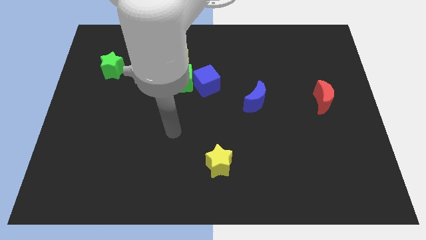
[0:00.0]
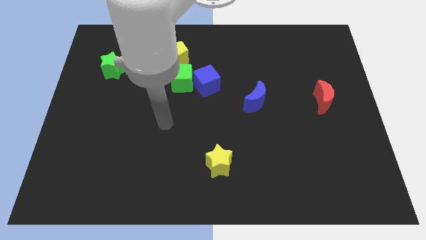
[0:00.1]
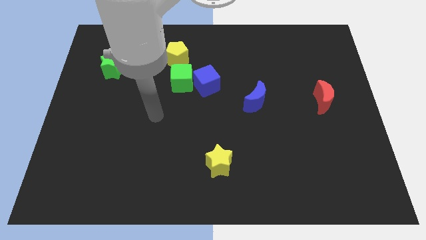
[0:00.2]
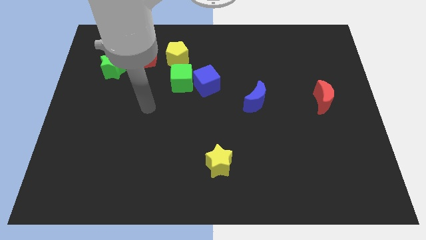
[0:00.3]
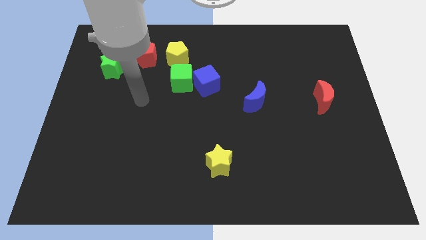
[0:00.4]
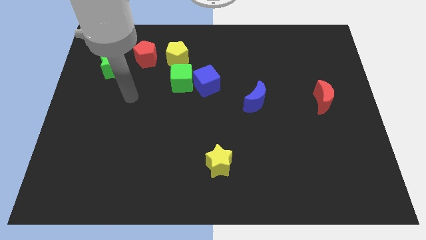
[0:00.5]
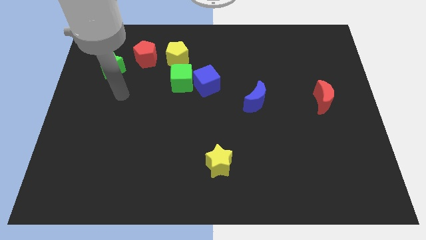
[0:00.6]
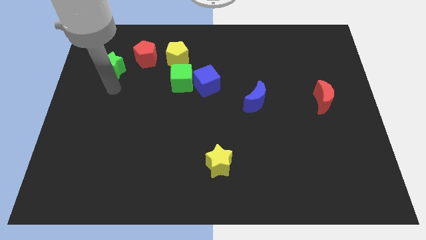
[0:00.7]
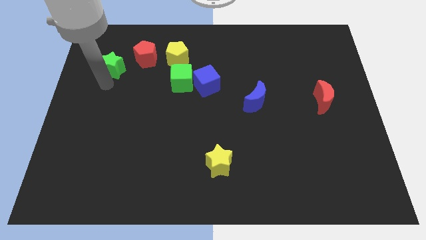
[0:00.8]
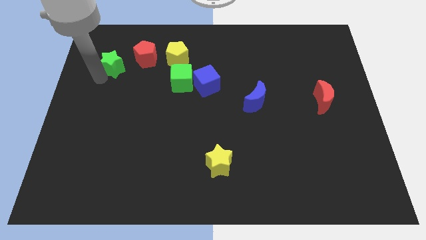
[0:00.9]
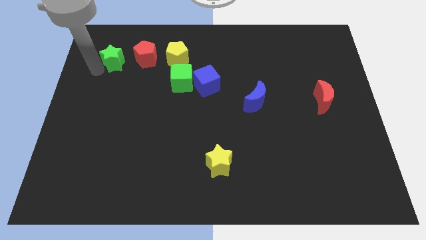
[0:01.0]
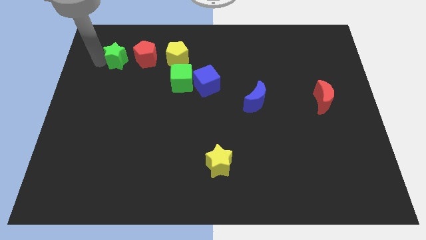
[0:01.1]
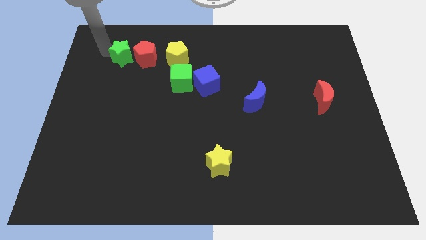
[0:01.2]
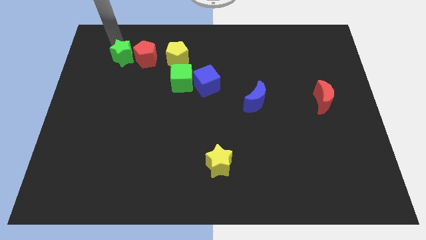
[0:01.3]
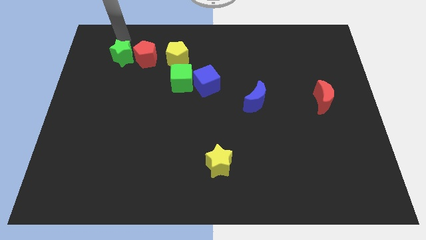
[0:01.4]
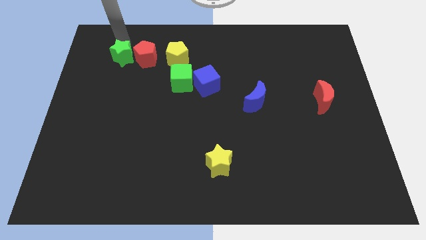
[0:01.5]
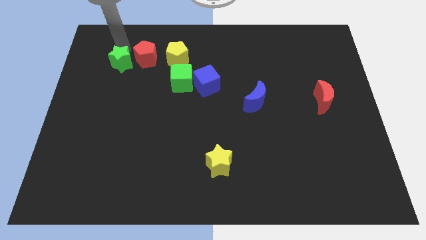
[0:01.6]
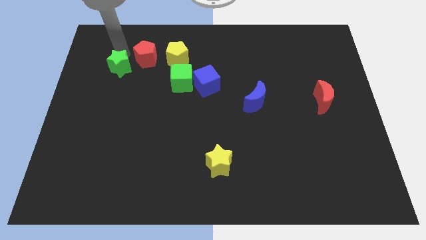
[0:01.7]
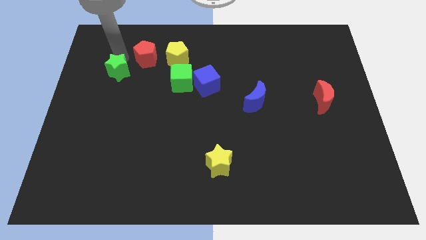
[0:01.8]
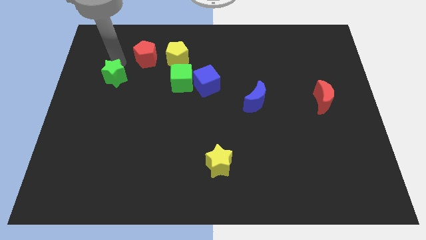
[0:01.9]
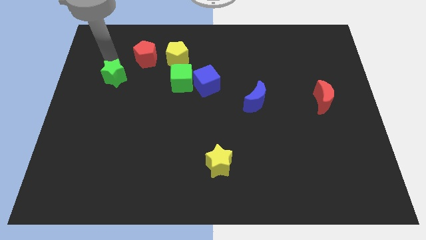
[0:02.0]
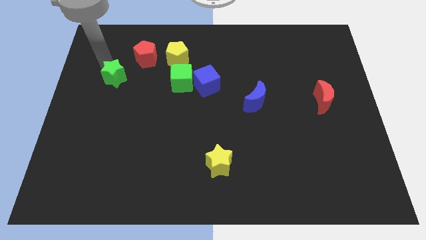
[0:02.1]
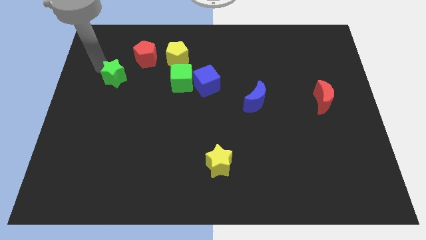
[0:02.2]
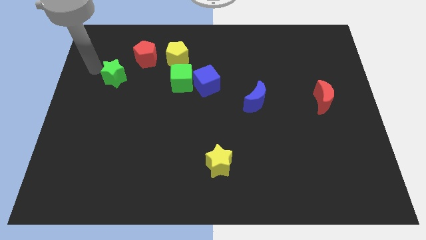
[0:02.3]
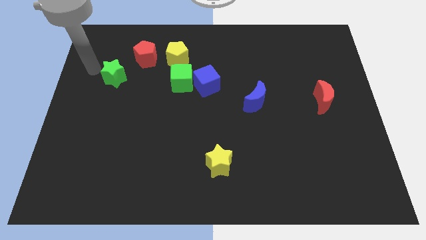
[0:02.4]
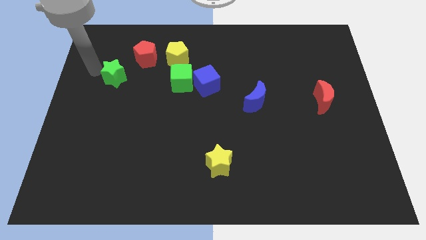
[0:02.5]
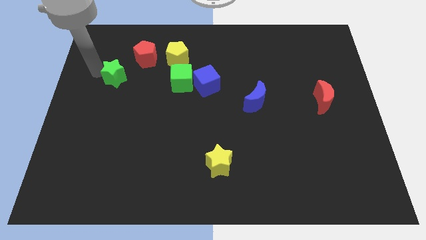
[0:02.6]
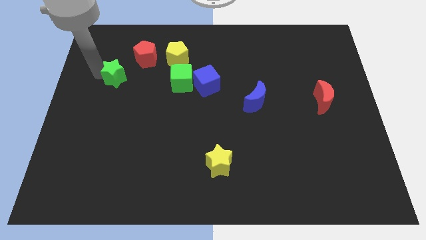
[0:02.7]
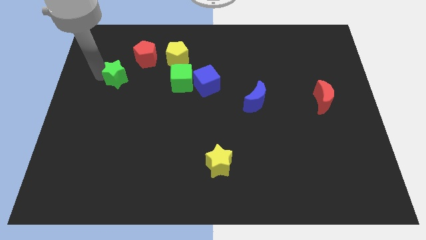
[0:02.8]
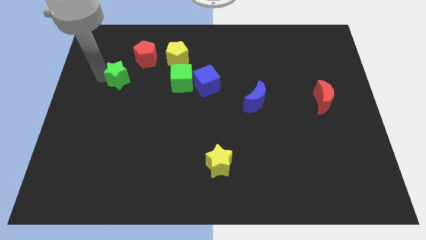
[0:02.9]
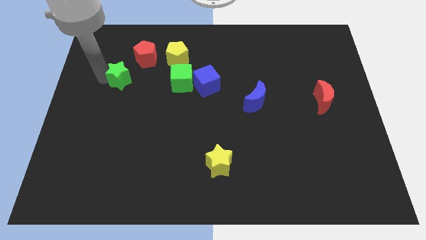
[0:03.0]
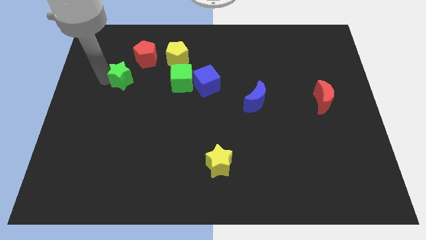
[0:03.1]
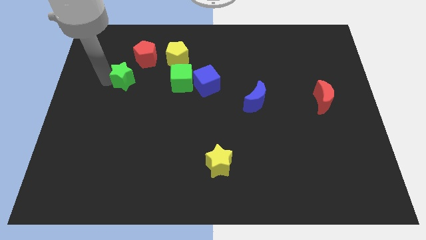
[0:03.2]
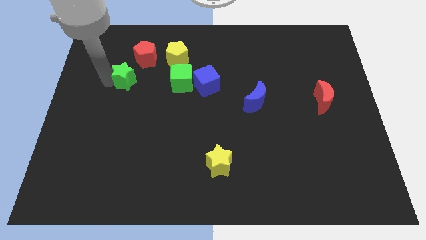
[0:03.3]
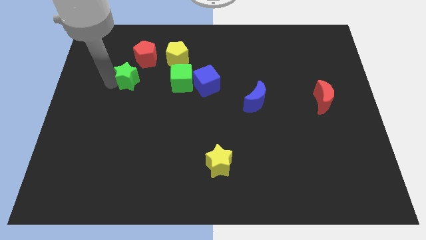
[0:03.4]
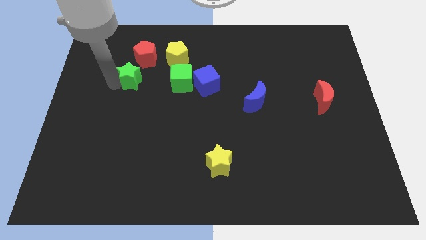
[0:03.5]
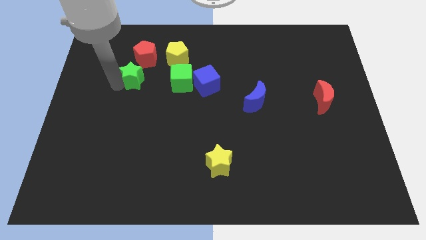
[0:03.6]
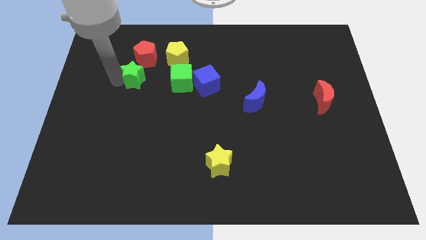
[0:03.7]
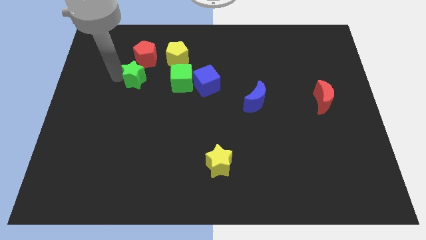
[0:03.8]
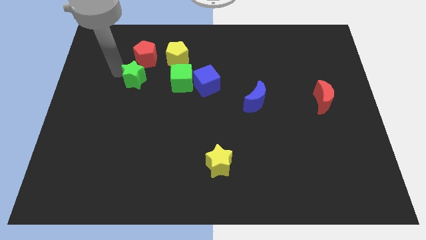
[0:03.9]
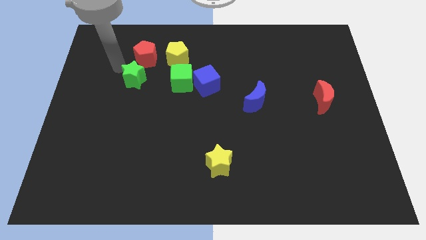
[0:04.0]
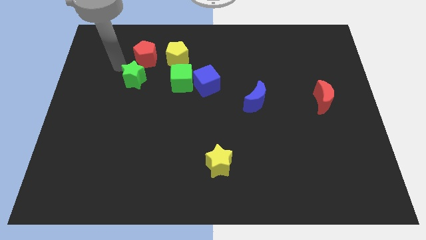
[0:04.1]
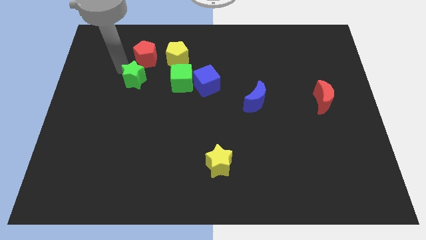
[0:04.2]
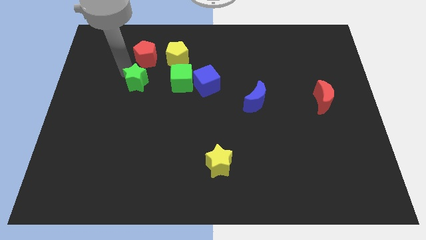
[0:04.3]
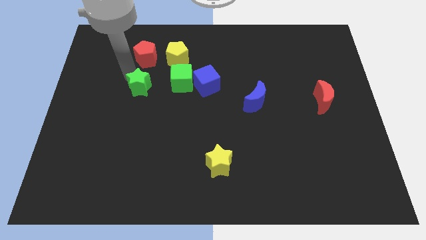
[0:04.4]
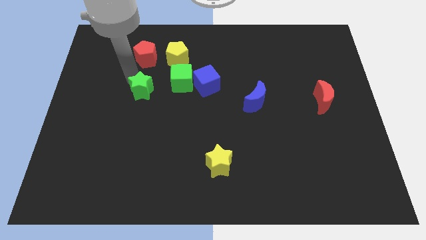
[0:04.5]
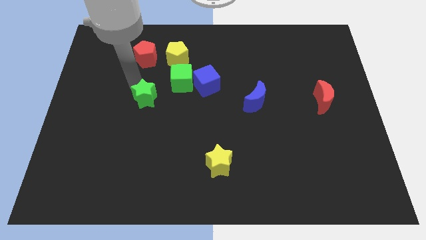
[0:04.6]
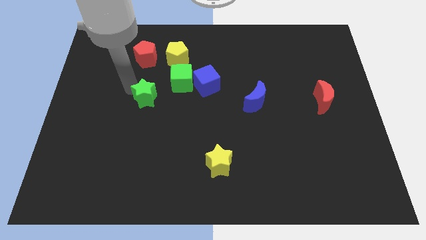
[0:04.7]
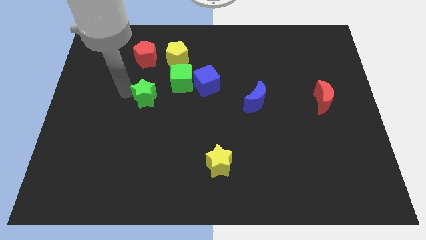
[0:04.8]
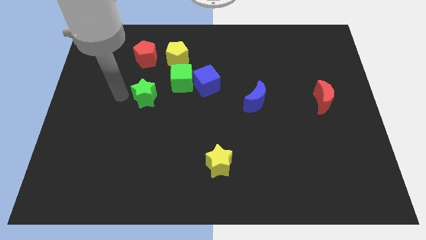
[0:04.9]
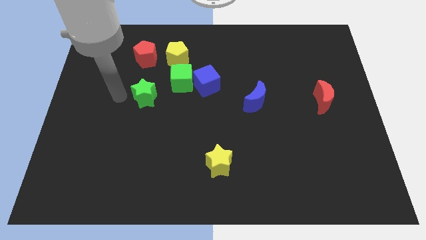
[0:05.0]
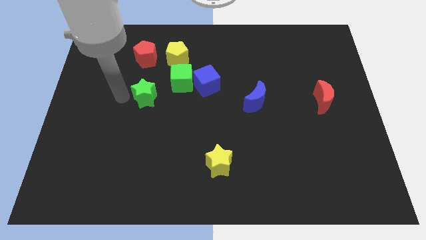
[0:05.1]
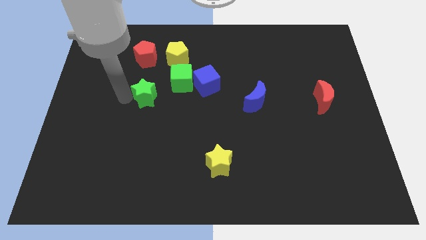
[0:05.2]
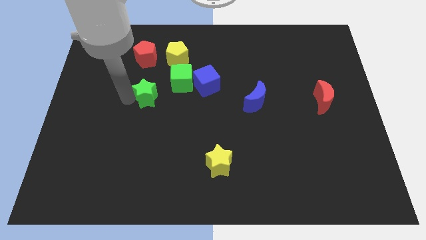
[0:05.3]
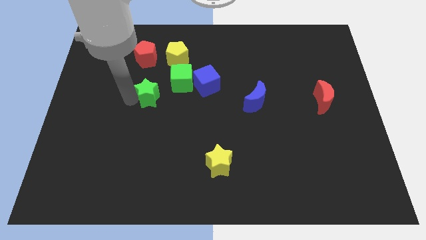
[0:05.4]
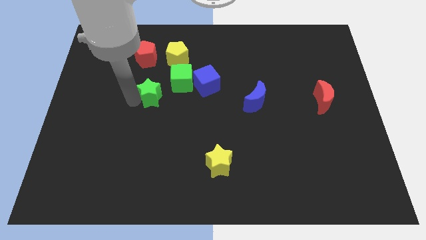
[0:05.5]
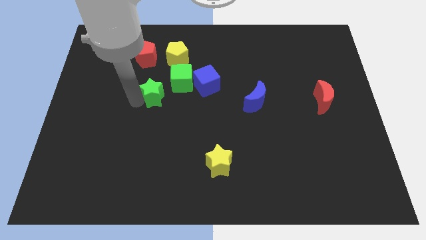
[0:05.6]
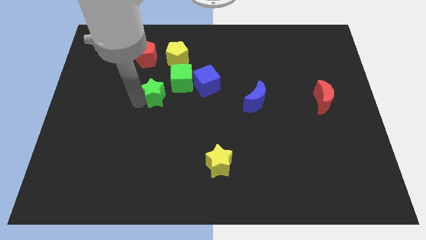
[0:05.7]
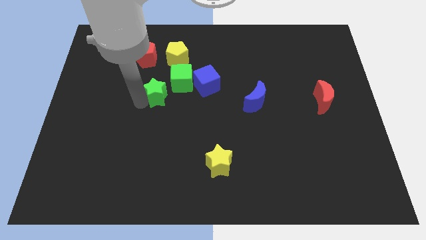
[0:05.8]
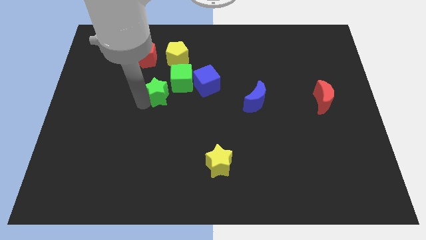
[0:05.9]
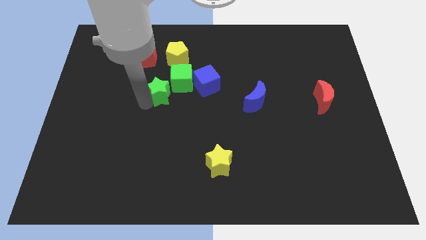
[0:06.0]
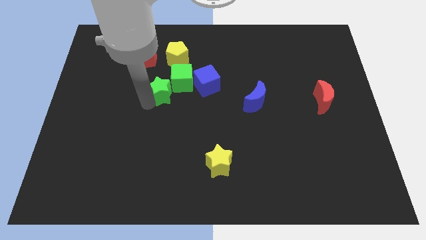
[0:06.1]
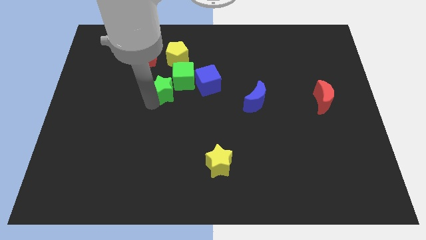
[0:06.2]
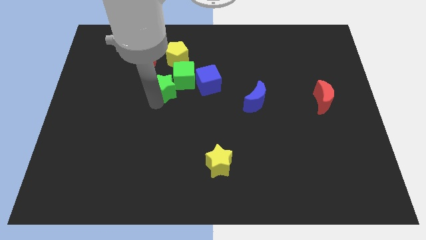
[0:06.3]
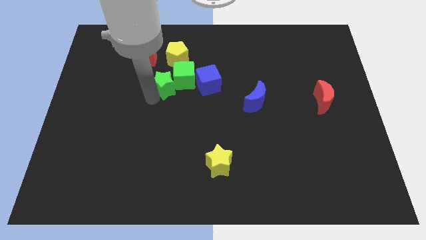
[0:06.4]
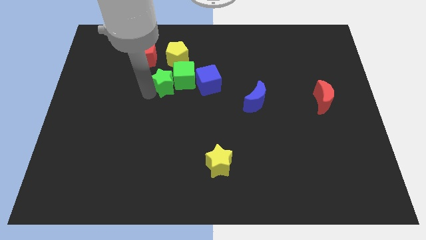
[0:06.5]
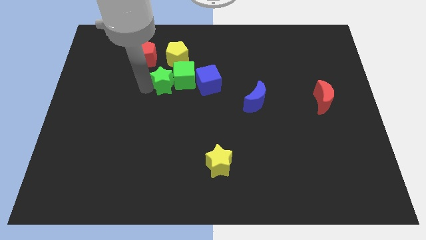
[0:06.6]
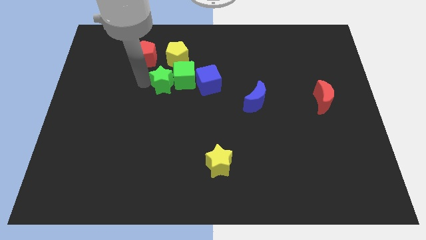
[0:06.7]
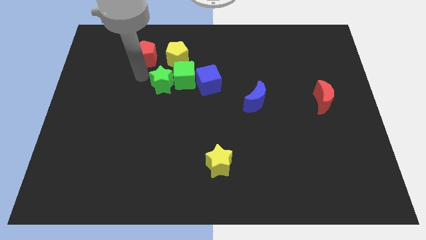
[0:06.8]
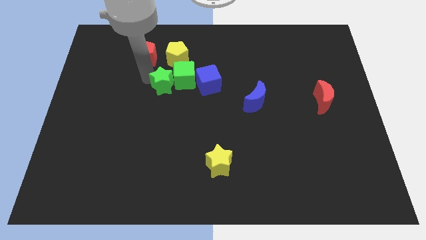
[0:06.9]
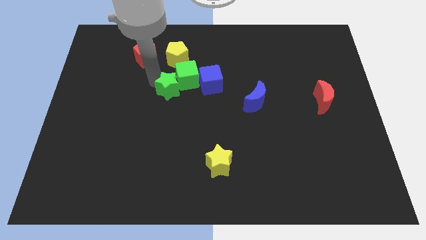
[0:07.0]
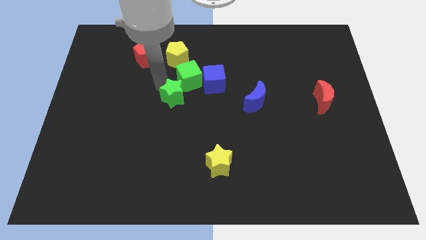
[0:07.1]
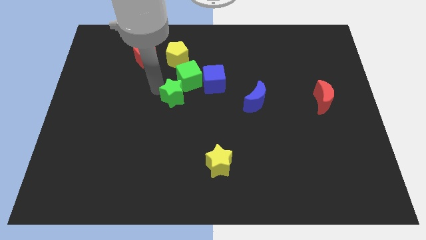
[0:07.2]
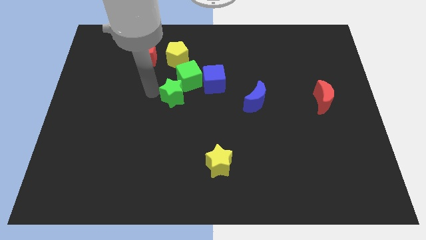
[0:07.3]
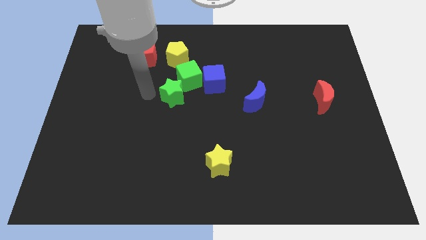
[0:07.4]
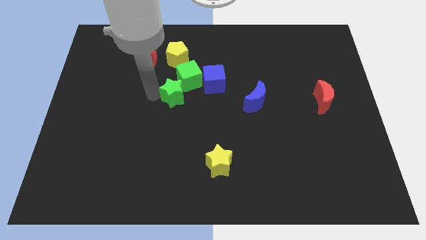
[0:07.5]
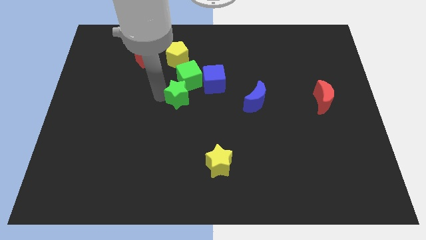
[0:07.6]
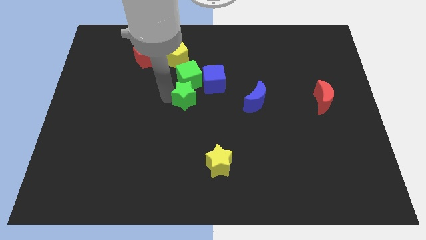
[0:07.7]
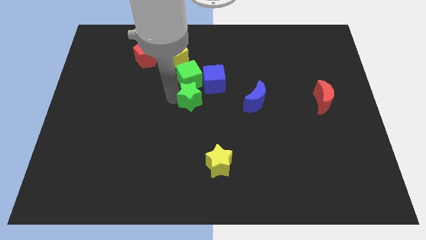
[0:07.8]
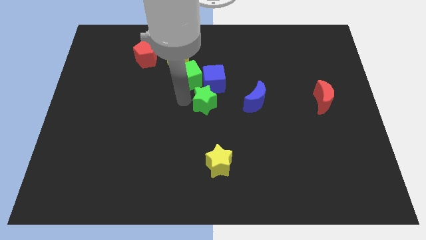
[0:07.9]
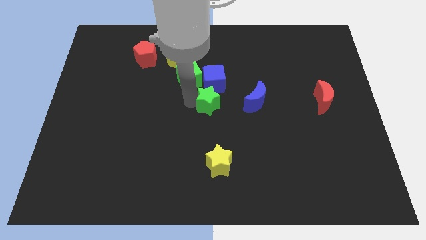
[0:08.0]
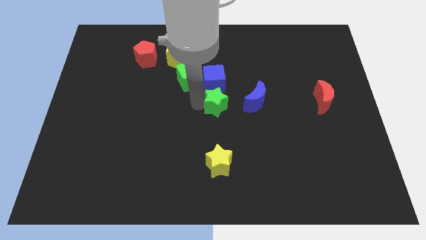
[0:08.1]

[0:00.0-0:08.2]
move the green star to the bottom right side of the blue cube
